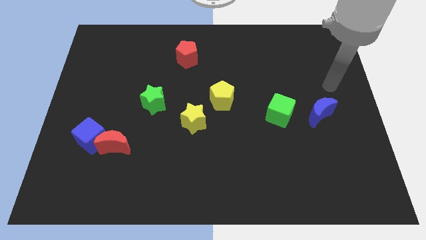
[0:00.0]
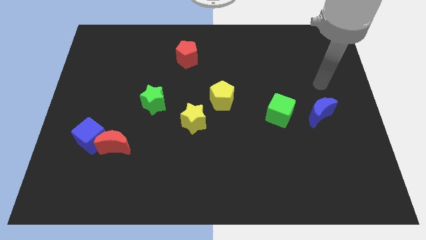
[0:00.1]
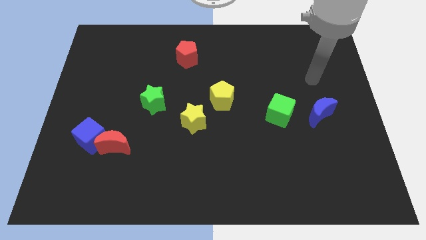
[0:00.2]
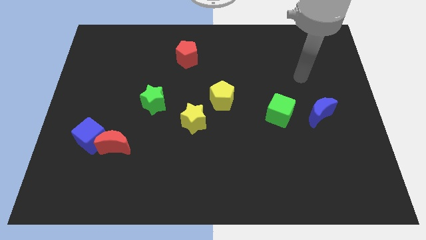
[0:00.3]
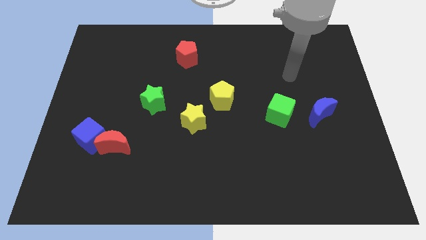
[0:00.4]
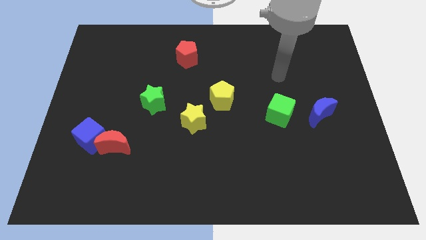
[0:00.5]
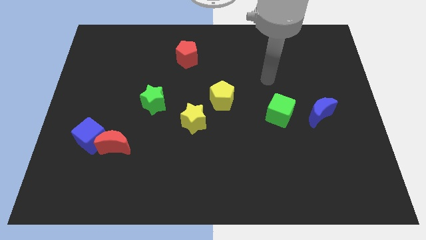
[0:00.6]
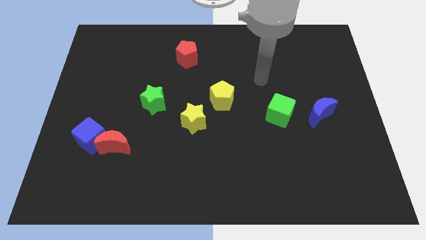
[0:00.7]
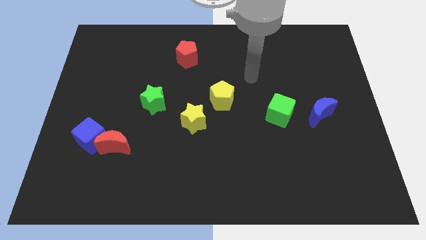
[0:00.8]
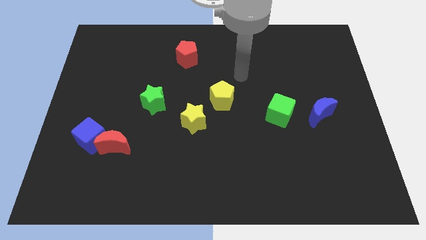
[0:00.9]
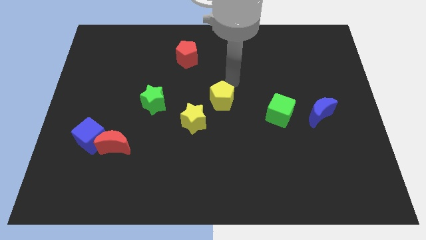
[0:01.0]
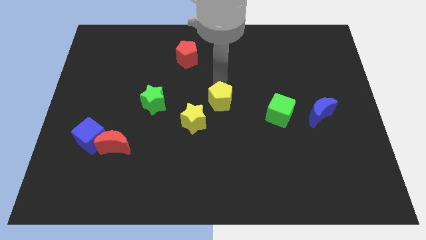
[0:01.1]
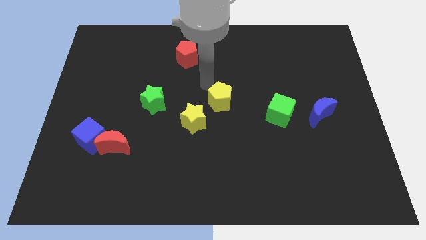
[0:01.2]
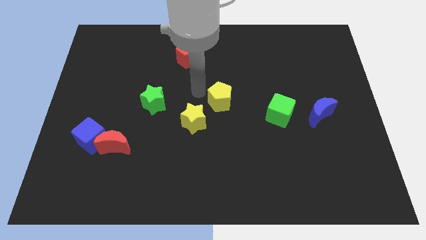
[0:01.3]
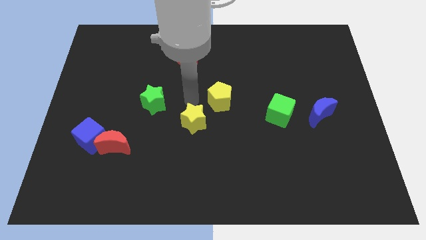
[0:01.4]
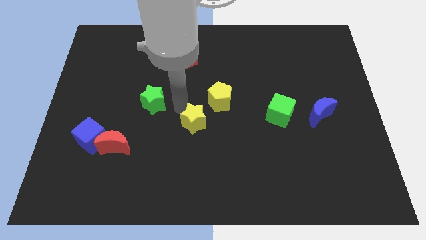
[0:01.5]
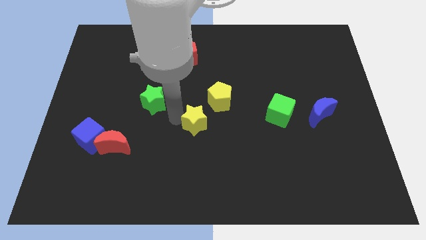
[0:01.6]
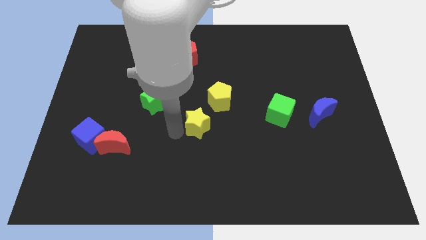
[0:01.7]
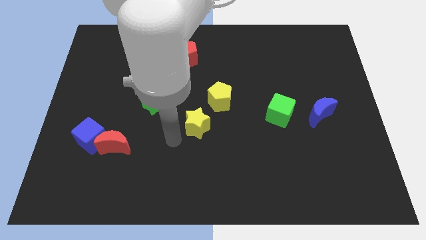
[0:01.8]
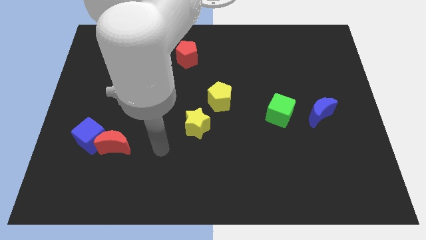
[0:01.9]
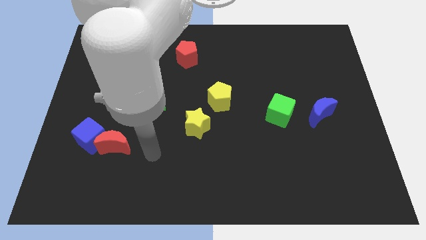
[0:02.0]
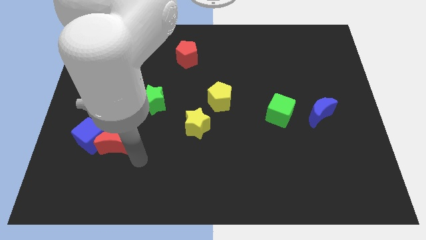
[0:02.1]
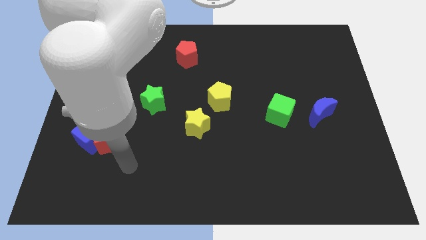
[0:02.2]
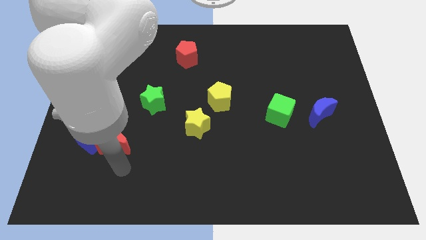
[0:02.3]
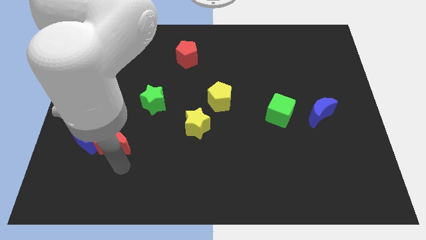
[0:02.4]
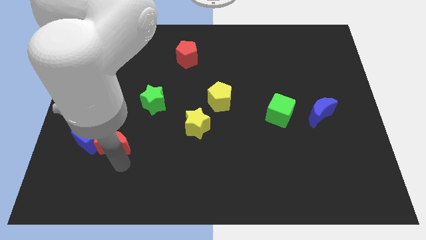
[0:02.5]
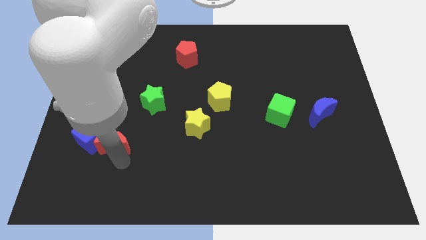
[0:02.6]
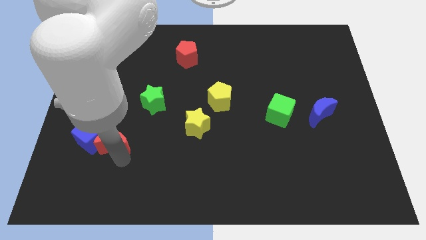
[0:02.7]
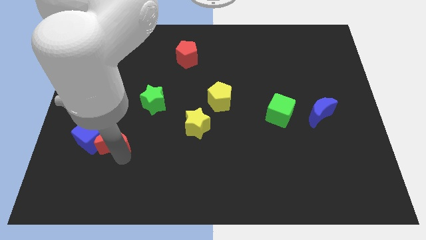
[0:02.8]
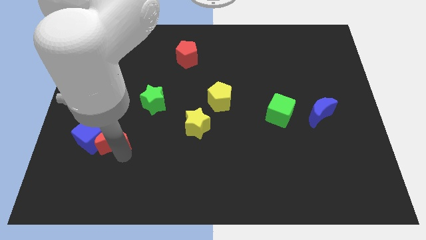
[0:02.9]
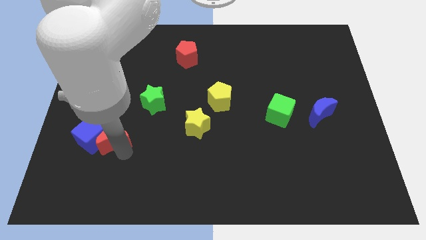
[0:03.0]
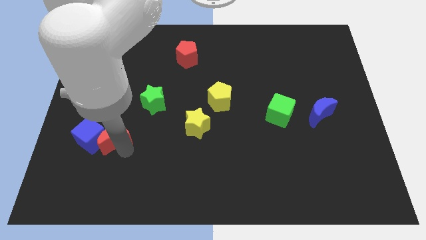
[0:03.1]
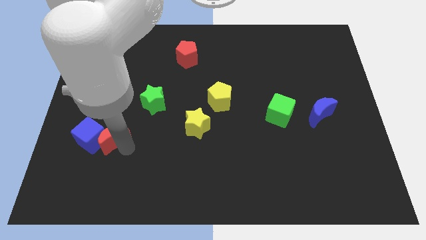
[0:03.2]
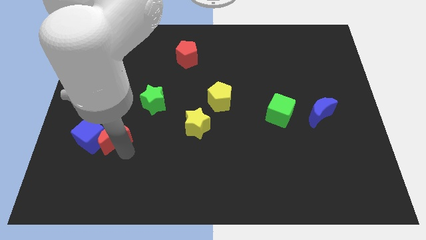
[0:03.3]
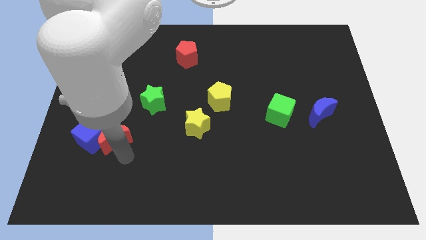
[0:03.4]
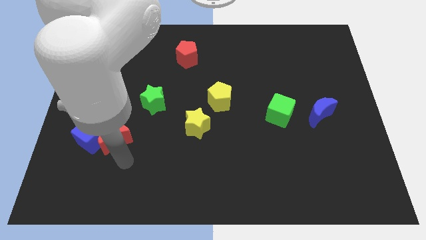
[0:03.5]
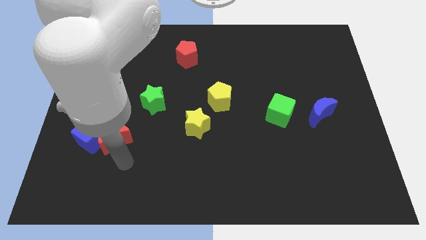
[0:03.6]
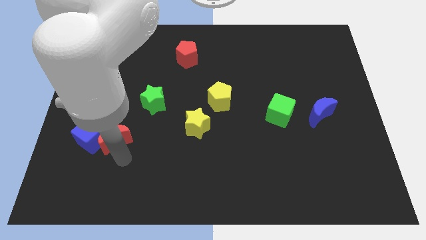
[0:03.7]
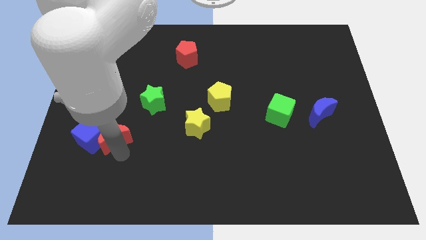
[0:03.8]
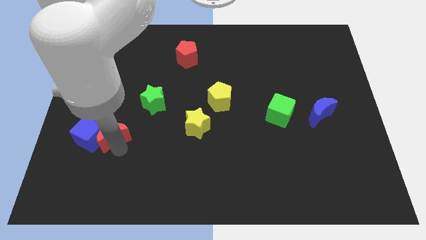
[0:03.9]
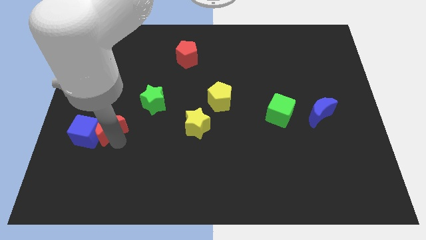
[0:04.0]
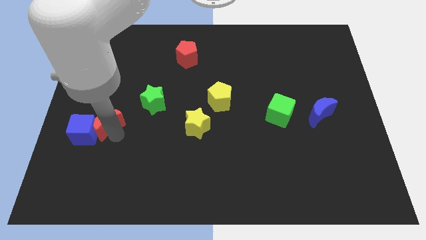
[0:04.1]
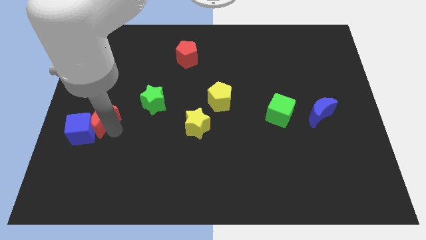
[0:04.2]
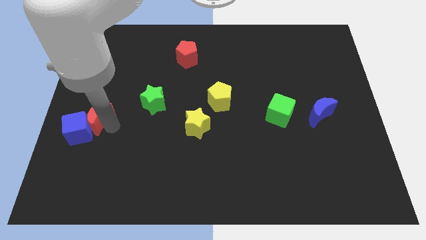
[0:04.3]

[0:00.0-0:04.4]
put the red moon to the center left

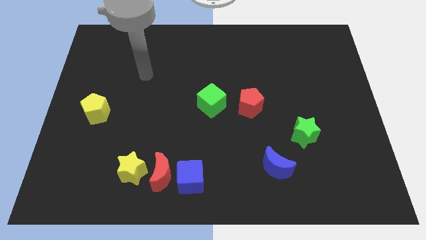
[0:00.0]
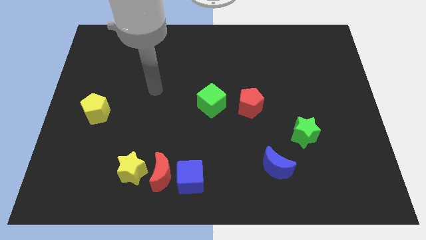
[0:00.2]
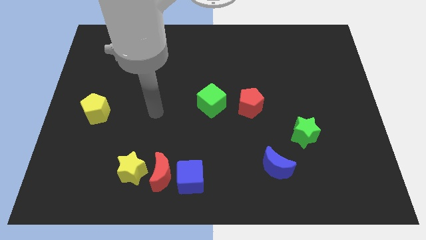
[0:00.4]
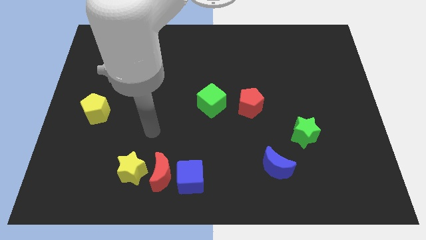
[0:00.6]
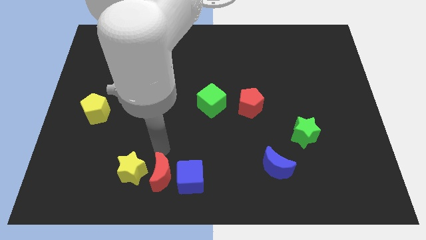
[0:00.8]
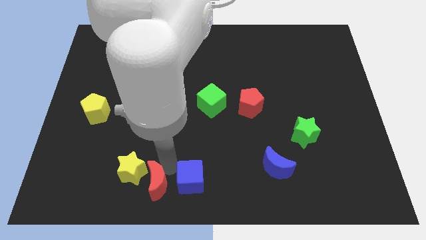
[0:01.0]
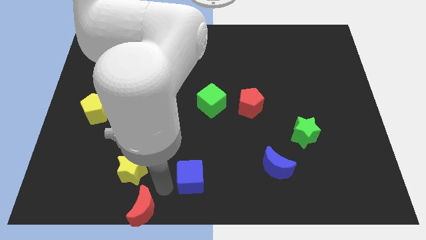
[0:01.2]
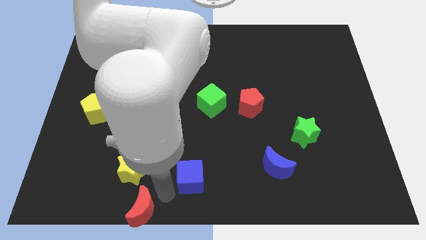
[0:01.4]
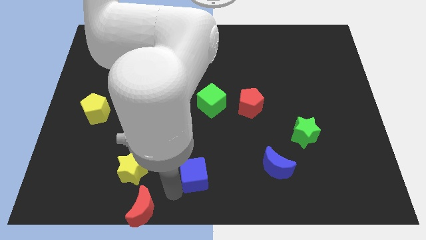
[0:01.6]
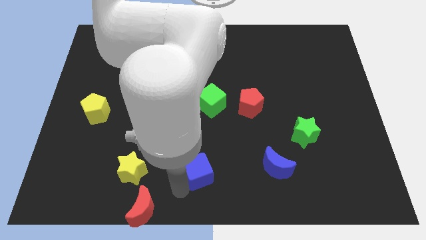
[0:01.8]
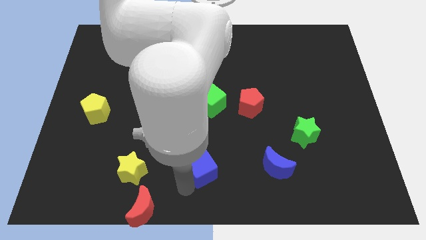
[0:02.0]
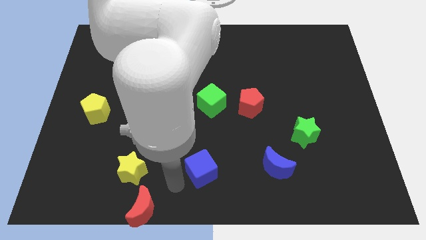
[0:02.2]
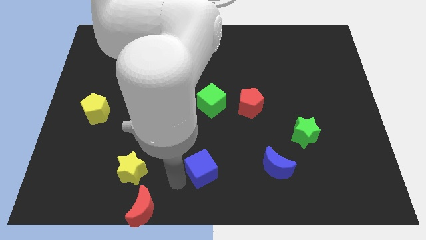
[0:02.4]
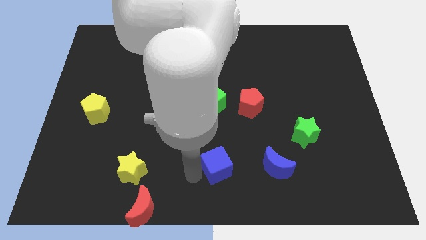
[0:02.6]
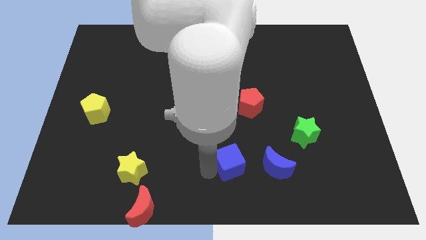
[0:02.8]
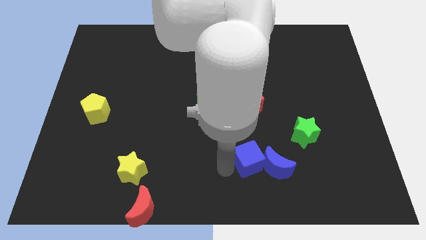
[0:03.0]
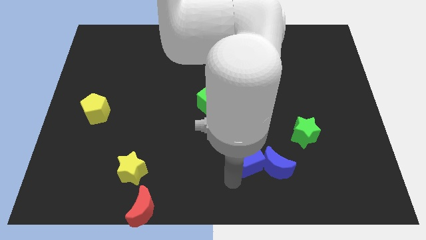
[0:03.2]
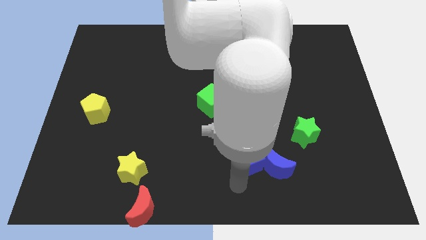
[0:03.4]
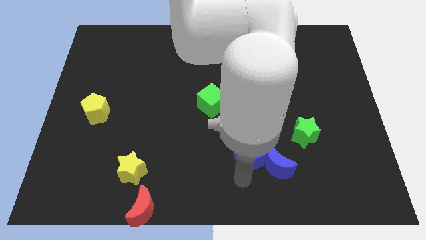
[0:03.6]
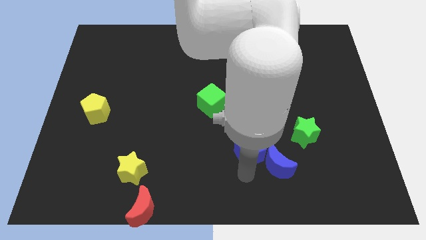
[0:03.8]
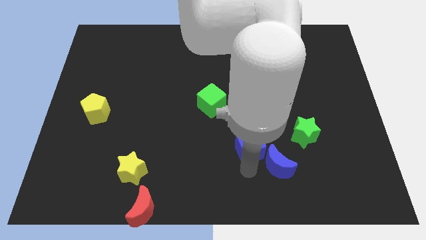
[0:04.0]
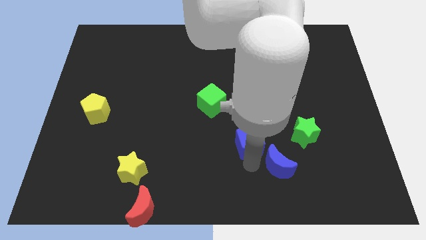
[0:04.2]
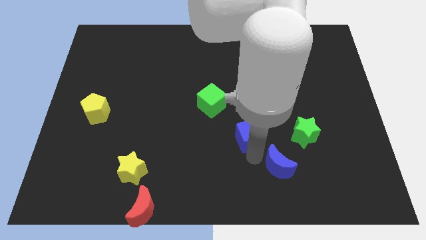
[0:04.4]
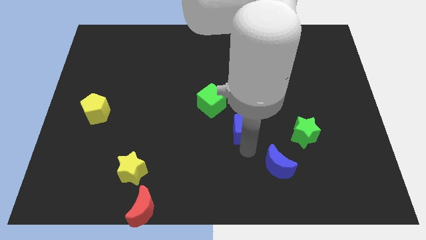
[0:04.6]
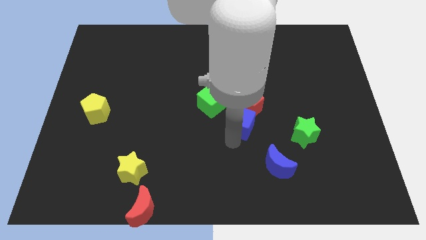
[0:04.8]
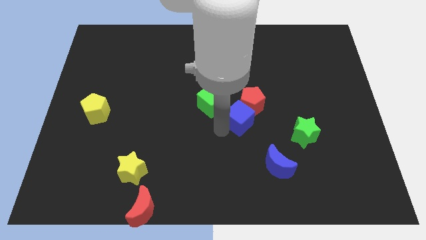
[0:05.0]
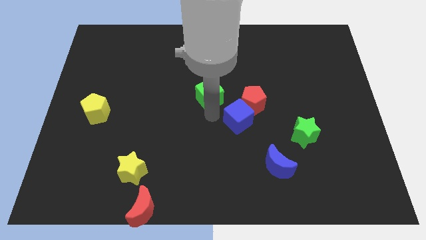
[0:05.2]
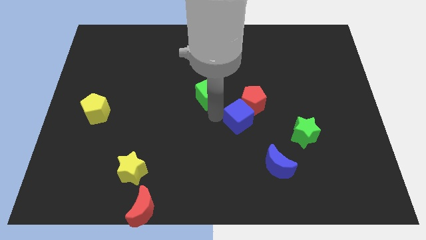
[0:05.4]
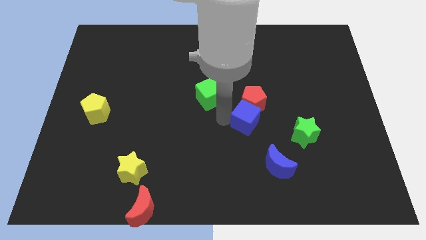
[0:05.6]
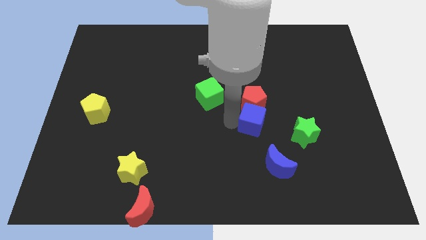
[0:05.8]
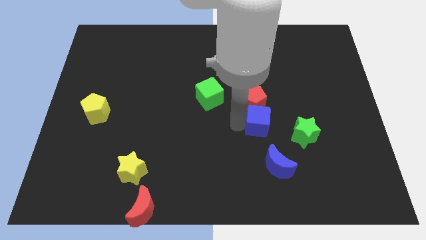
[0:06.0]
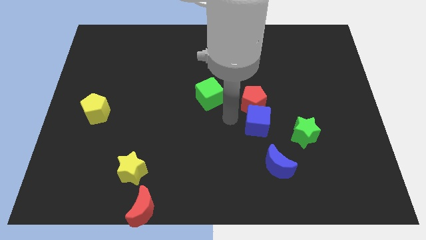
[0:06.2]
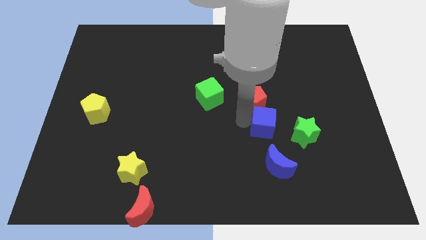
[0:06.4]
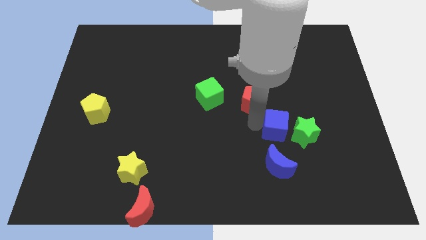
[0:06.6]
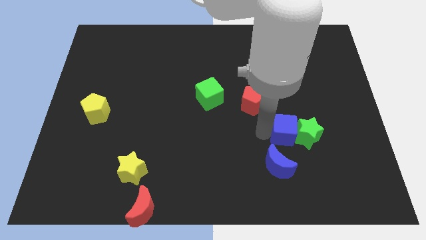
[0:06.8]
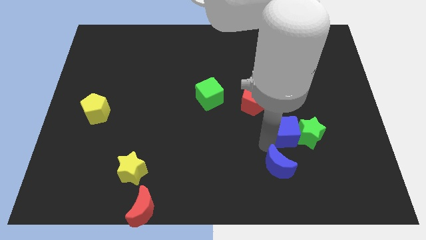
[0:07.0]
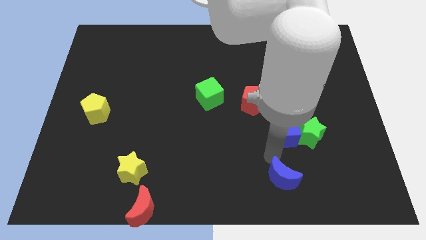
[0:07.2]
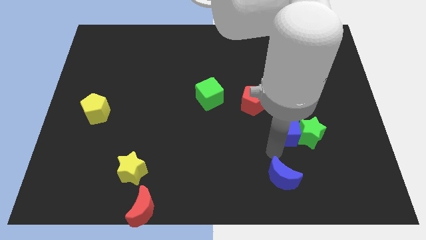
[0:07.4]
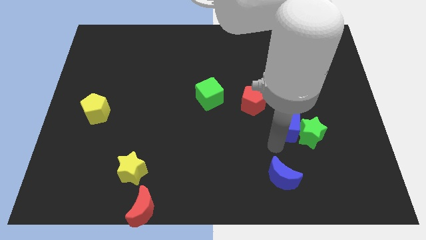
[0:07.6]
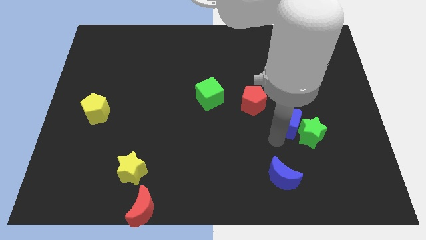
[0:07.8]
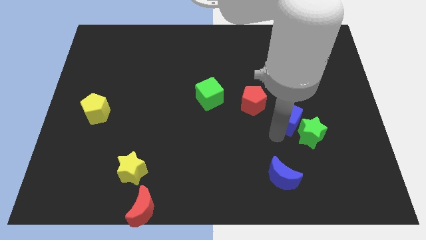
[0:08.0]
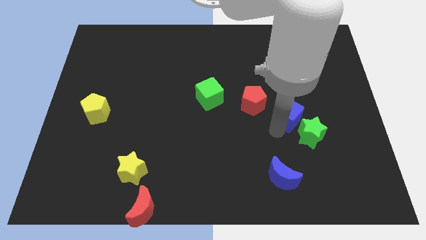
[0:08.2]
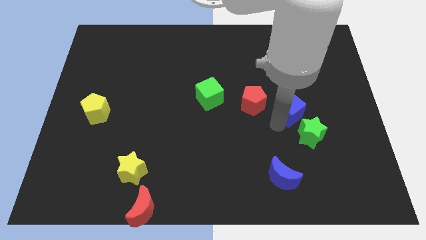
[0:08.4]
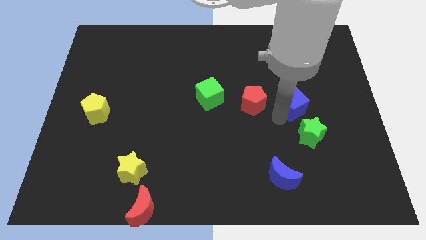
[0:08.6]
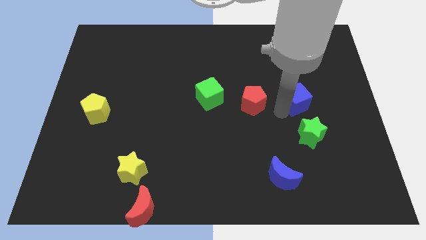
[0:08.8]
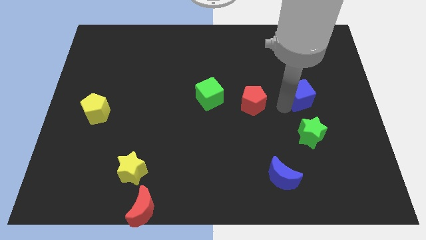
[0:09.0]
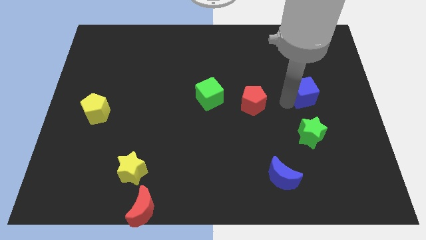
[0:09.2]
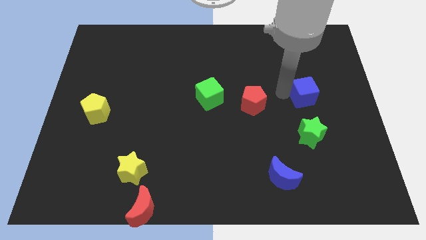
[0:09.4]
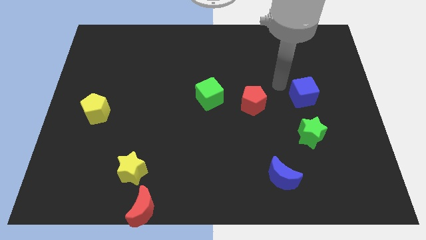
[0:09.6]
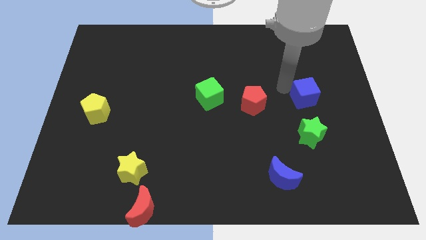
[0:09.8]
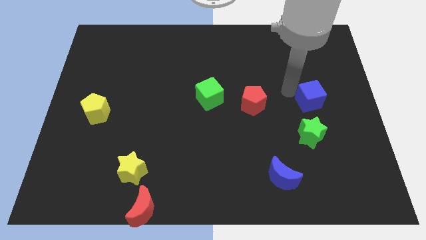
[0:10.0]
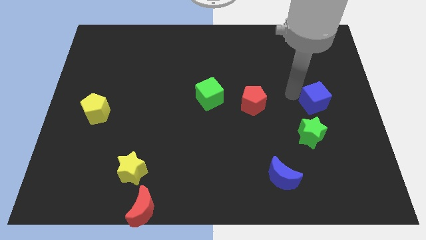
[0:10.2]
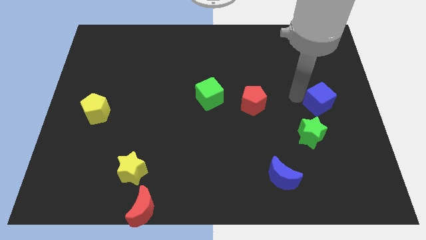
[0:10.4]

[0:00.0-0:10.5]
put the blue cube to the center right
